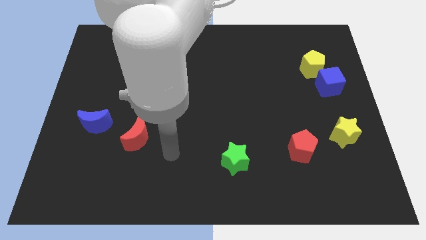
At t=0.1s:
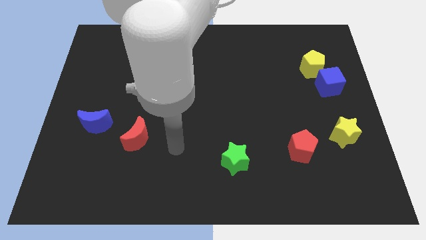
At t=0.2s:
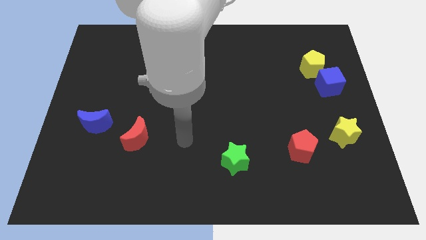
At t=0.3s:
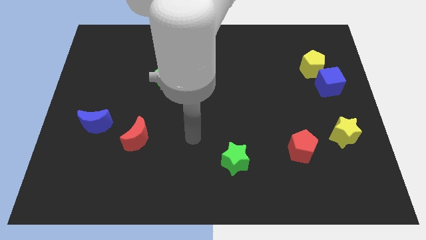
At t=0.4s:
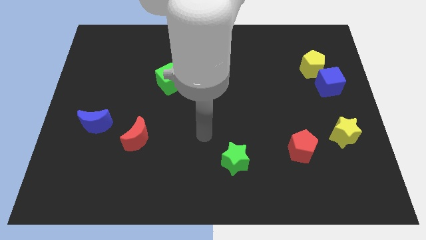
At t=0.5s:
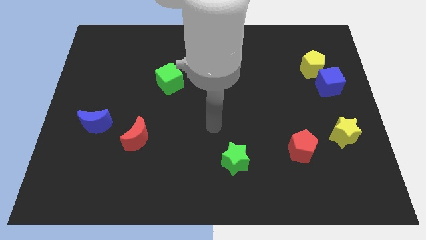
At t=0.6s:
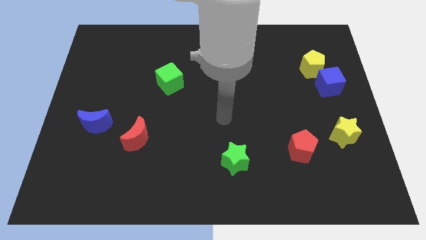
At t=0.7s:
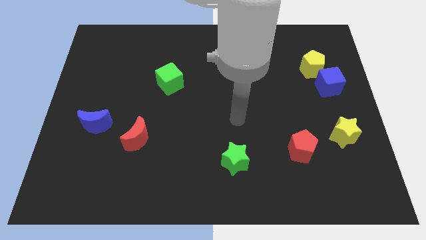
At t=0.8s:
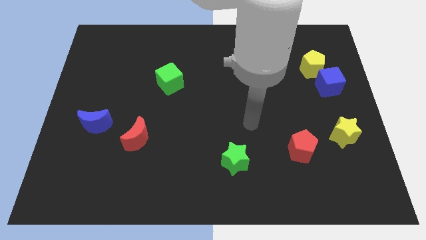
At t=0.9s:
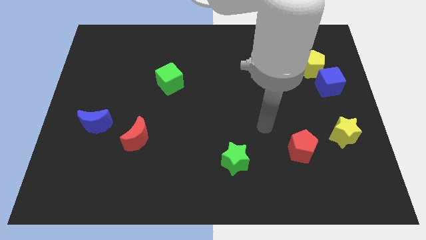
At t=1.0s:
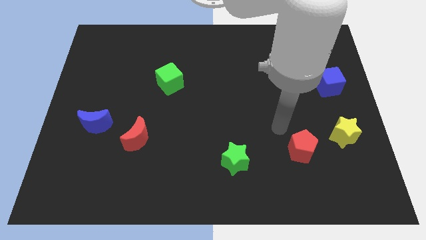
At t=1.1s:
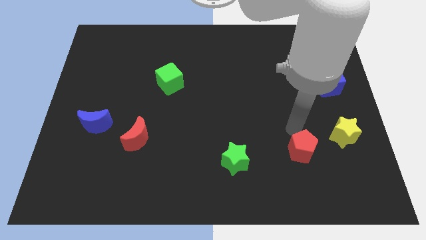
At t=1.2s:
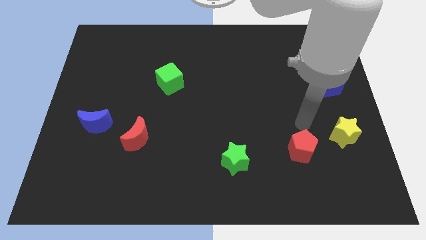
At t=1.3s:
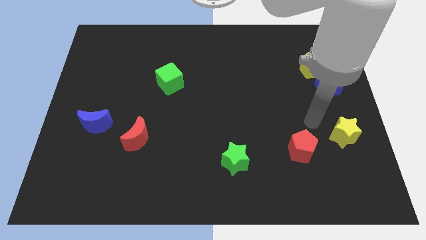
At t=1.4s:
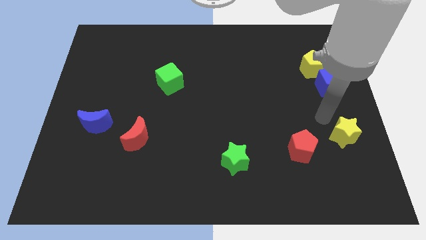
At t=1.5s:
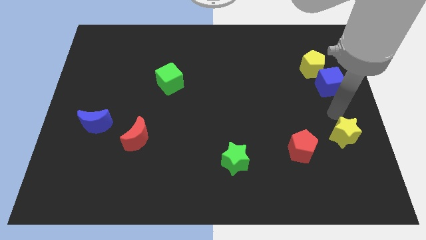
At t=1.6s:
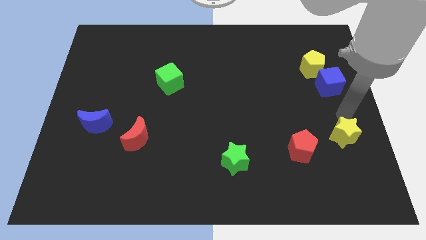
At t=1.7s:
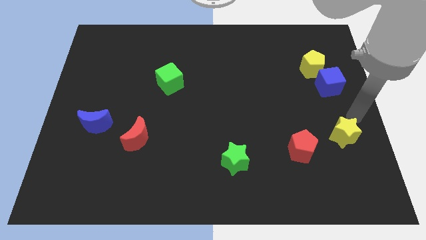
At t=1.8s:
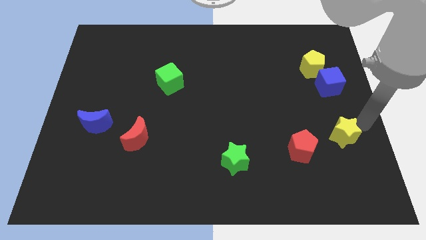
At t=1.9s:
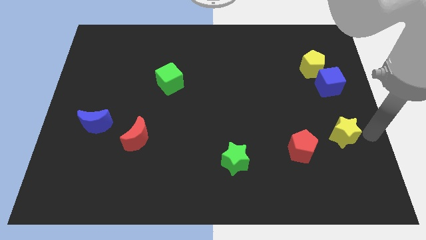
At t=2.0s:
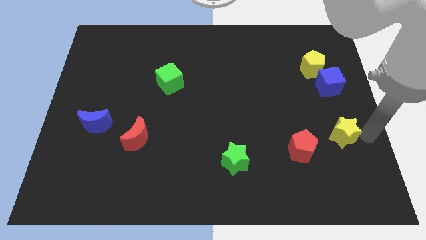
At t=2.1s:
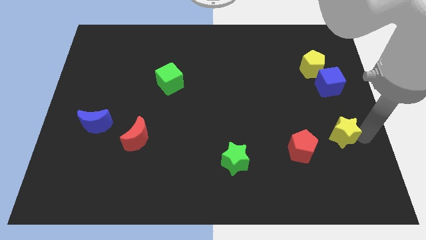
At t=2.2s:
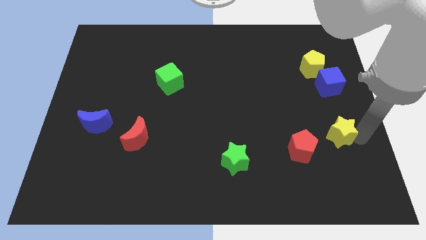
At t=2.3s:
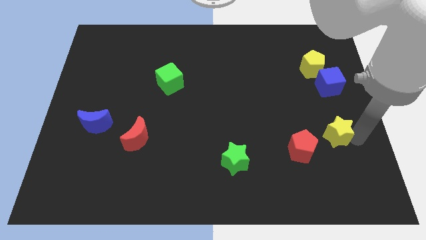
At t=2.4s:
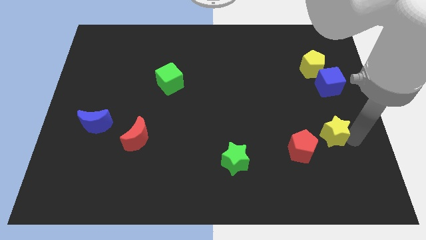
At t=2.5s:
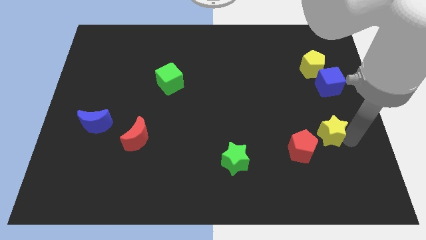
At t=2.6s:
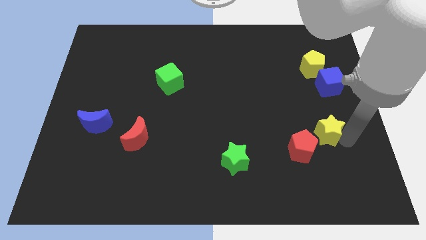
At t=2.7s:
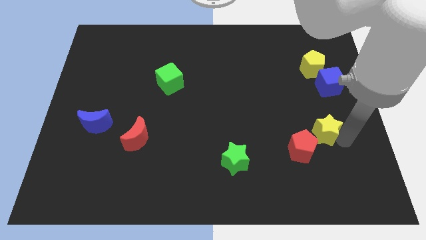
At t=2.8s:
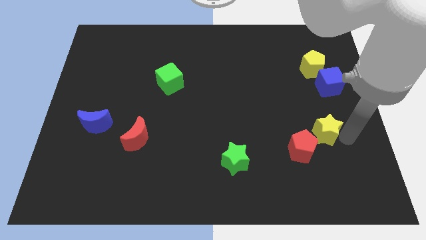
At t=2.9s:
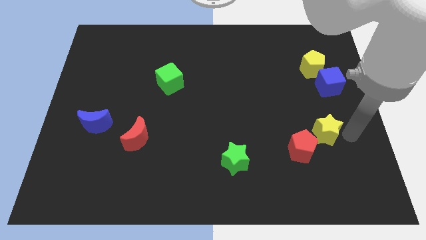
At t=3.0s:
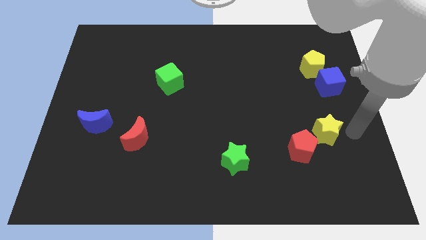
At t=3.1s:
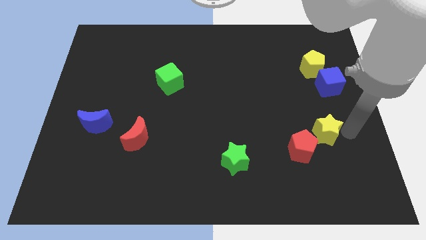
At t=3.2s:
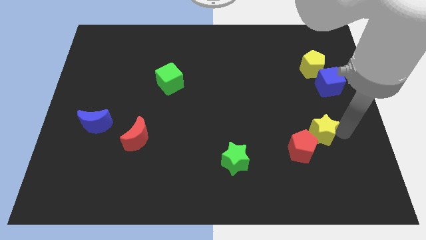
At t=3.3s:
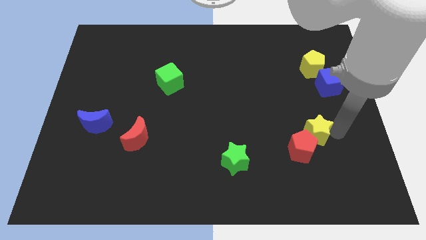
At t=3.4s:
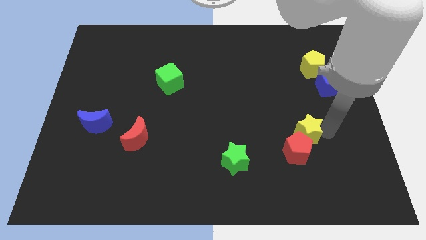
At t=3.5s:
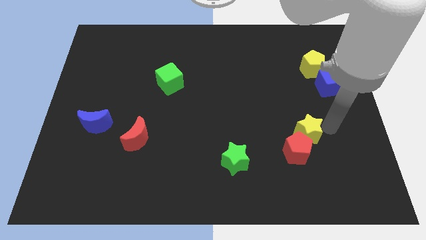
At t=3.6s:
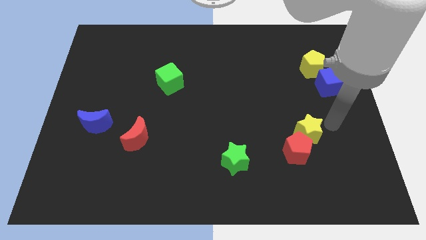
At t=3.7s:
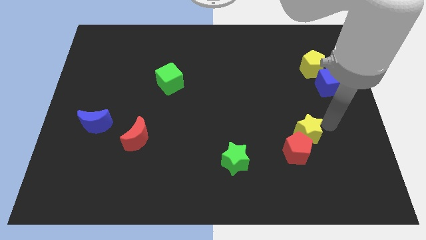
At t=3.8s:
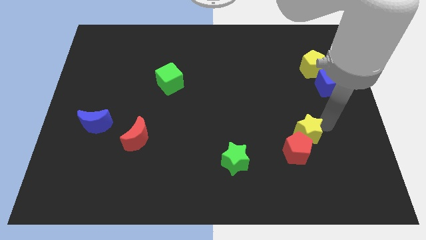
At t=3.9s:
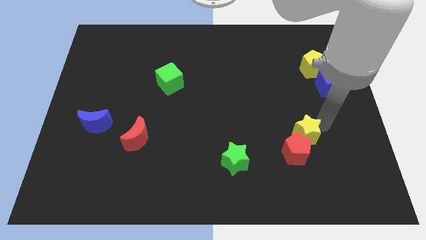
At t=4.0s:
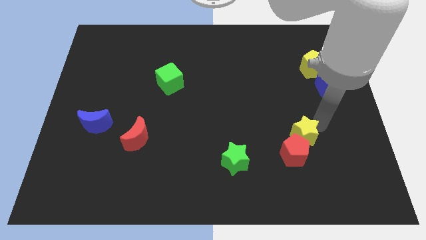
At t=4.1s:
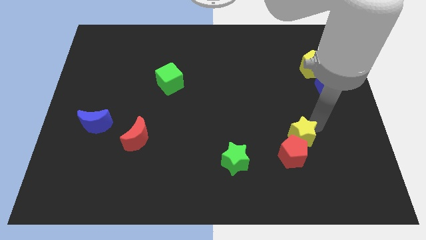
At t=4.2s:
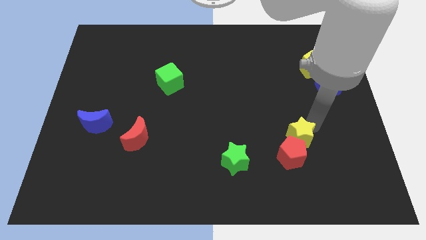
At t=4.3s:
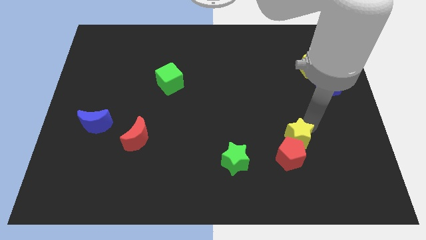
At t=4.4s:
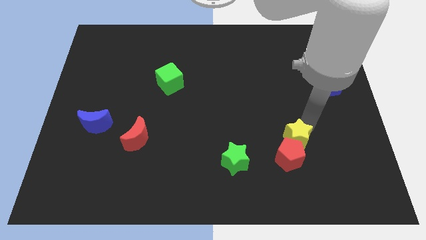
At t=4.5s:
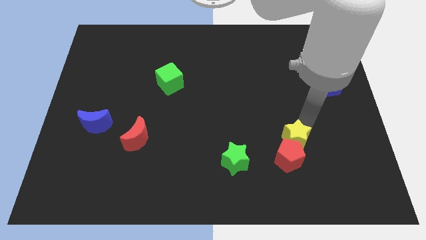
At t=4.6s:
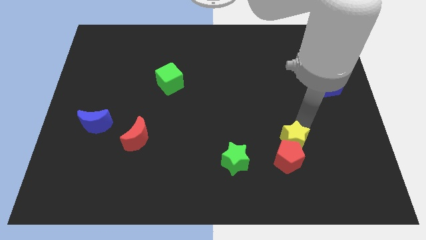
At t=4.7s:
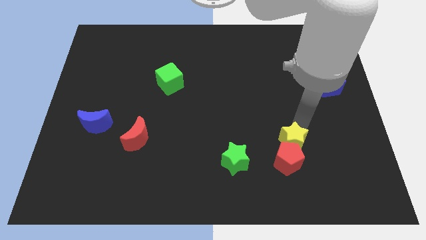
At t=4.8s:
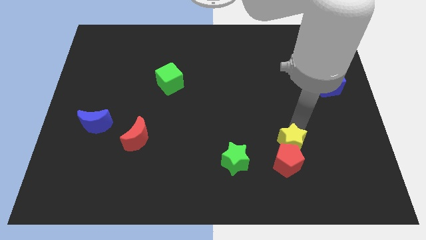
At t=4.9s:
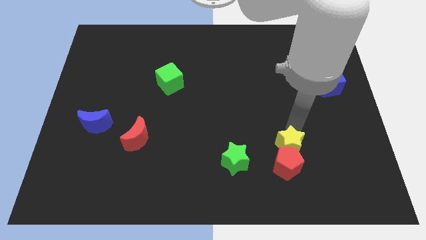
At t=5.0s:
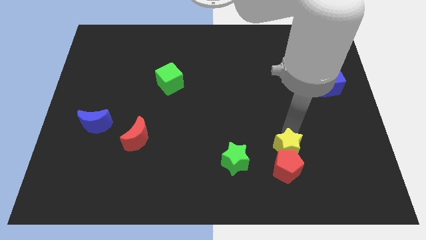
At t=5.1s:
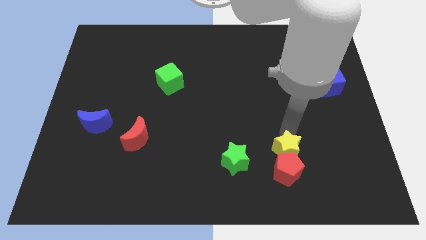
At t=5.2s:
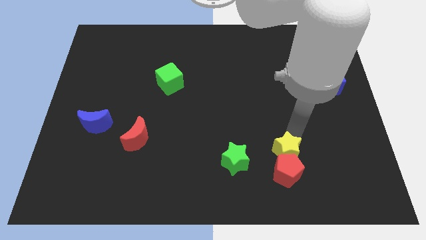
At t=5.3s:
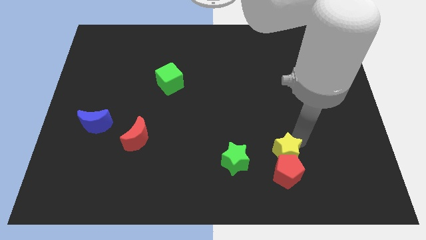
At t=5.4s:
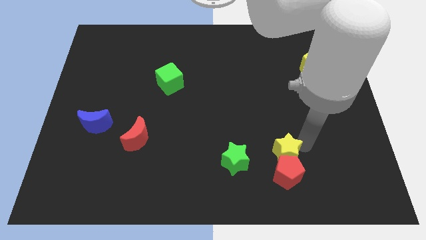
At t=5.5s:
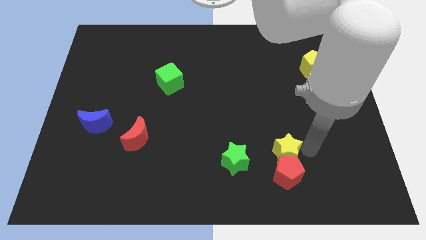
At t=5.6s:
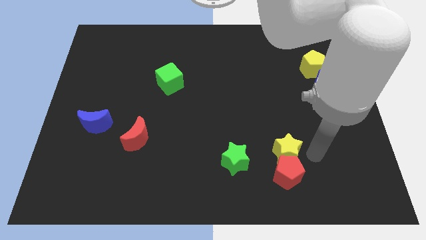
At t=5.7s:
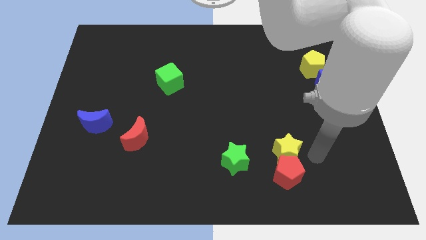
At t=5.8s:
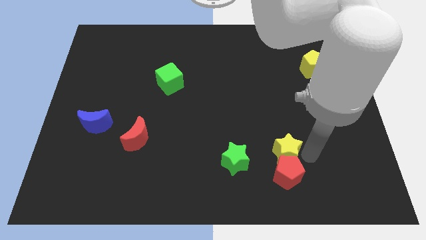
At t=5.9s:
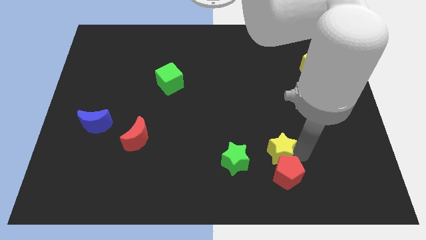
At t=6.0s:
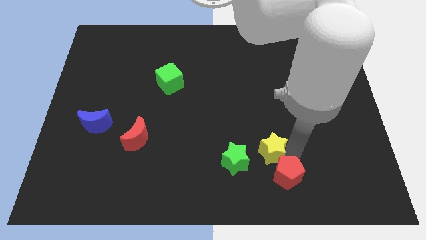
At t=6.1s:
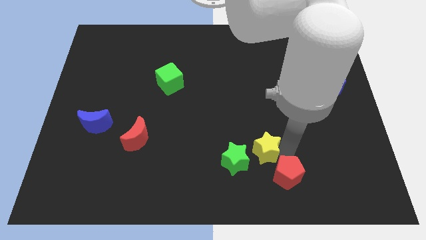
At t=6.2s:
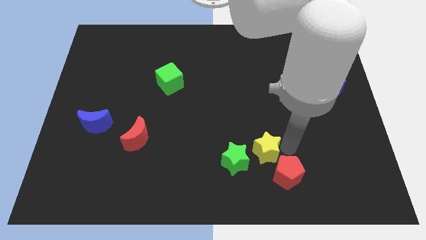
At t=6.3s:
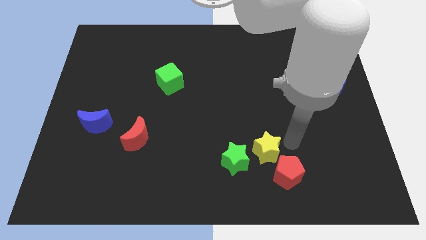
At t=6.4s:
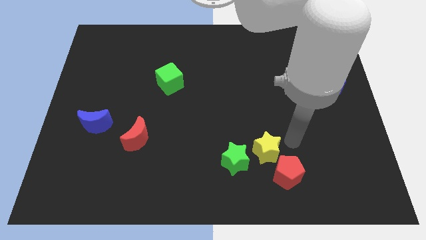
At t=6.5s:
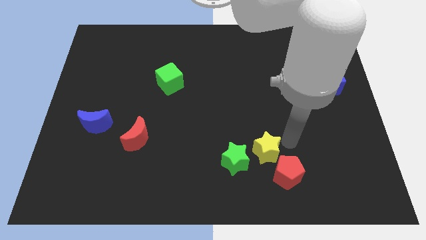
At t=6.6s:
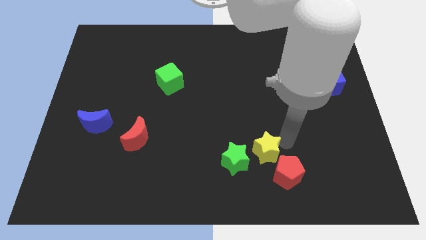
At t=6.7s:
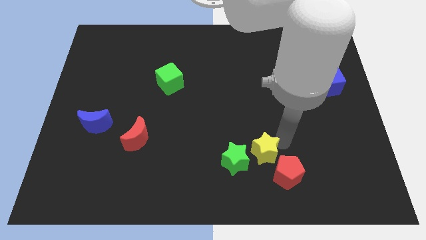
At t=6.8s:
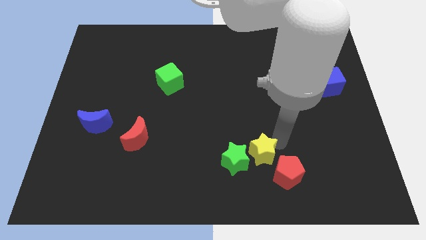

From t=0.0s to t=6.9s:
put the yellow star towards the green star
